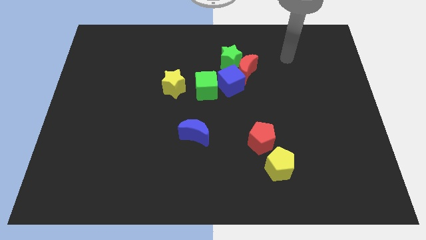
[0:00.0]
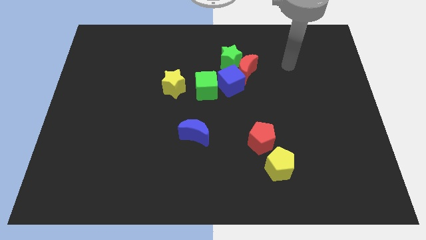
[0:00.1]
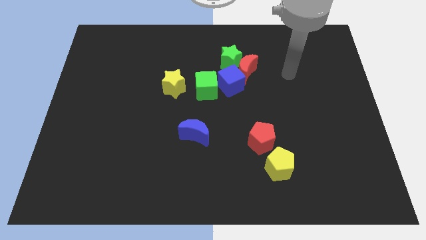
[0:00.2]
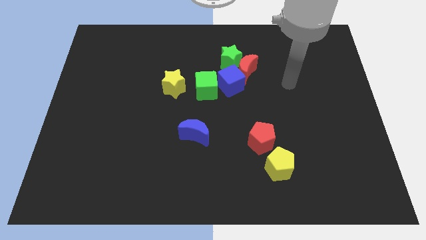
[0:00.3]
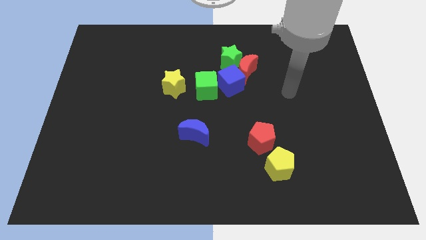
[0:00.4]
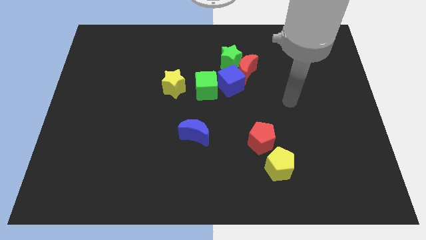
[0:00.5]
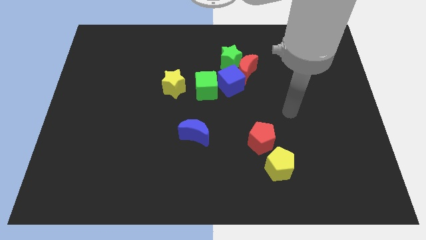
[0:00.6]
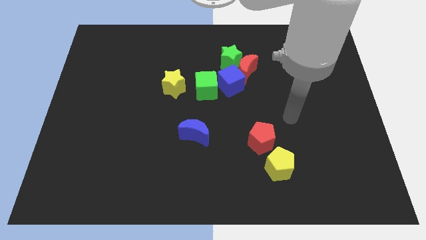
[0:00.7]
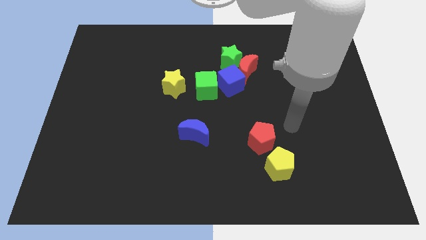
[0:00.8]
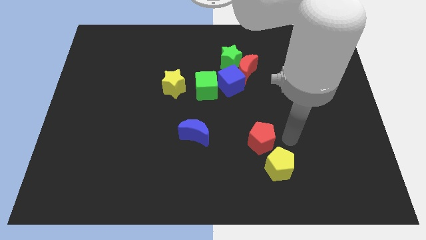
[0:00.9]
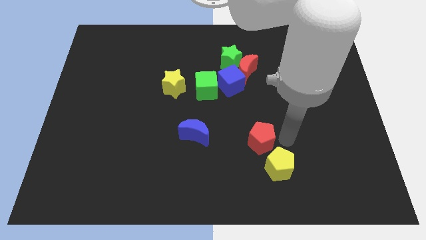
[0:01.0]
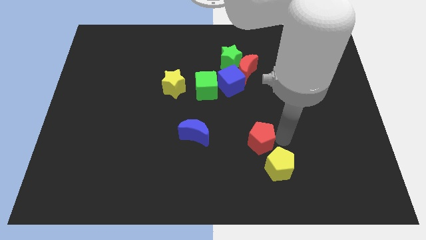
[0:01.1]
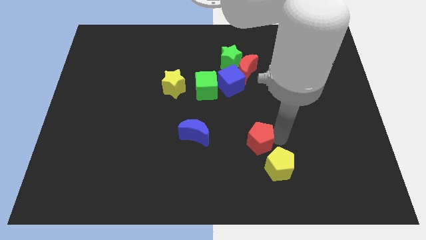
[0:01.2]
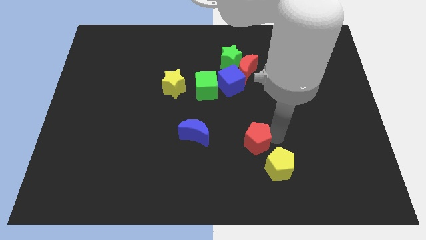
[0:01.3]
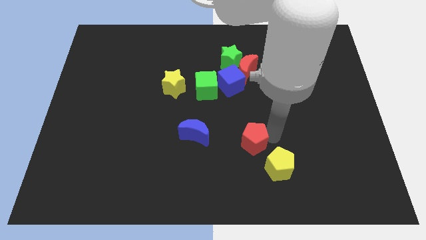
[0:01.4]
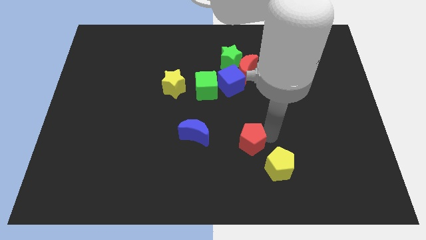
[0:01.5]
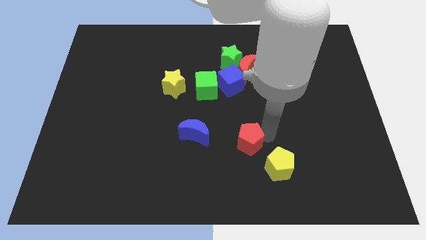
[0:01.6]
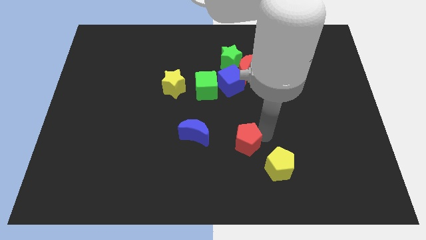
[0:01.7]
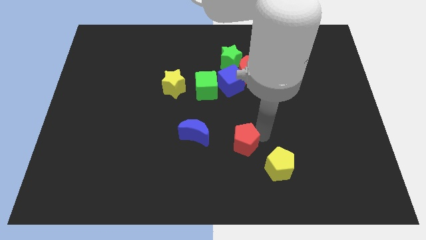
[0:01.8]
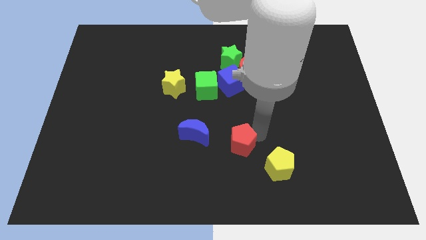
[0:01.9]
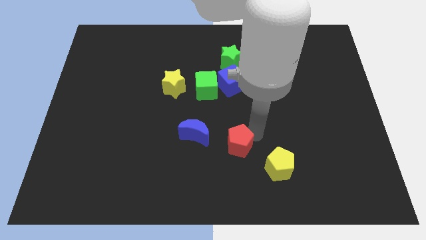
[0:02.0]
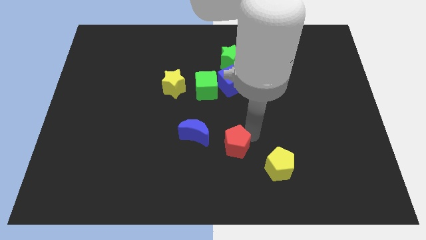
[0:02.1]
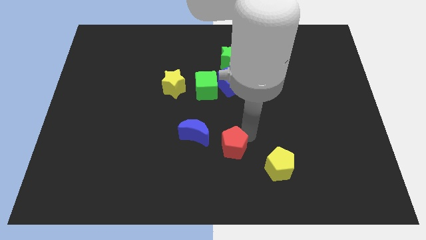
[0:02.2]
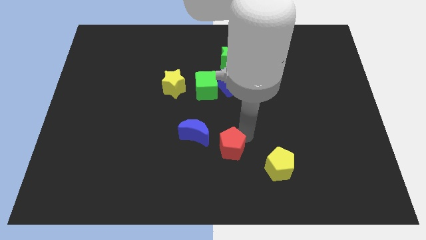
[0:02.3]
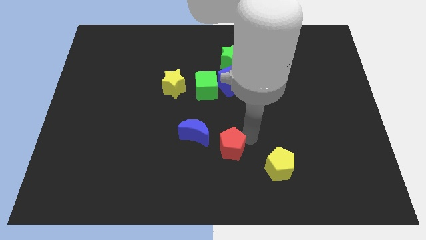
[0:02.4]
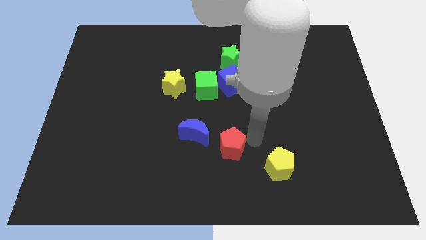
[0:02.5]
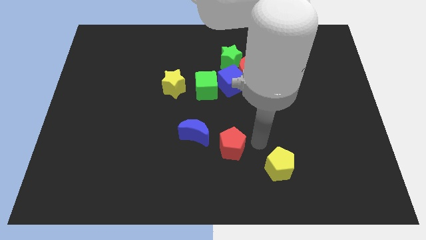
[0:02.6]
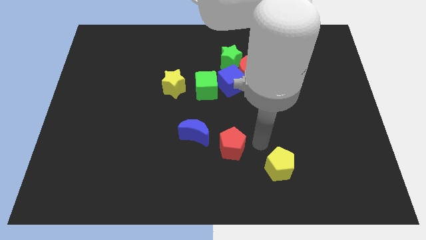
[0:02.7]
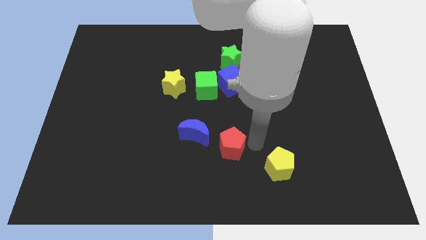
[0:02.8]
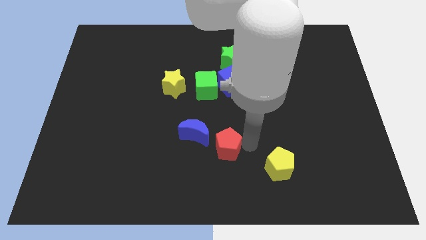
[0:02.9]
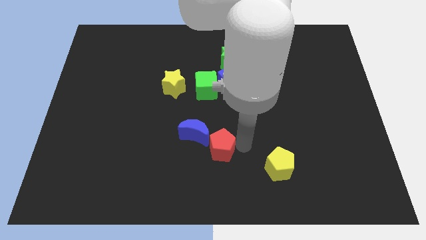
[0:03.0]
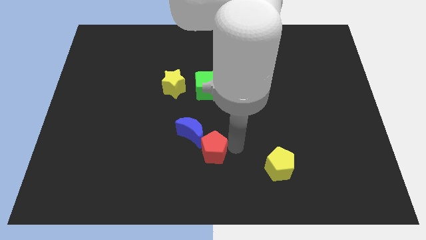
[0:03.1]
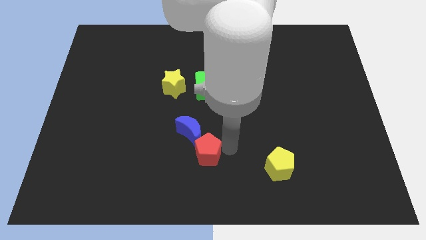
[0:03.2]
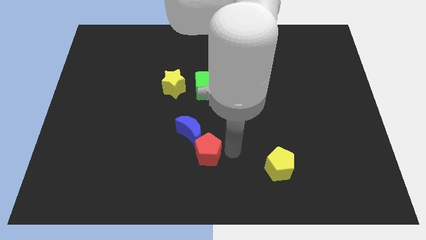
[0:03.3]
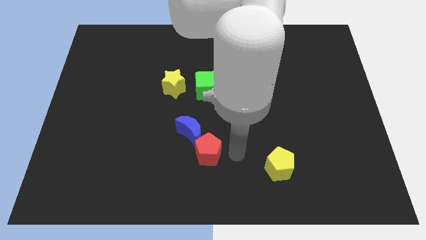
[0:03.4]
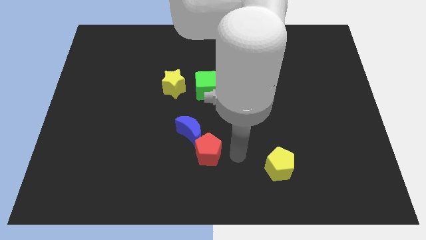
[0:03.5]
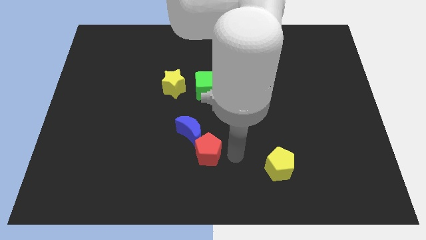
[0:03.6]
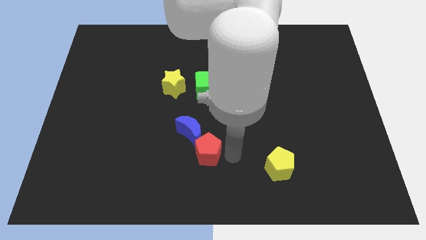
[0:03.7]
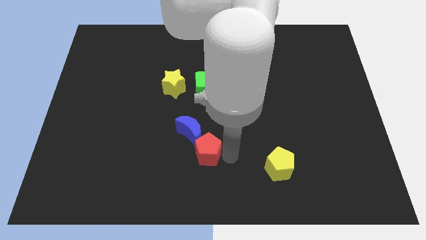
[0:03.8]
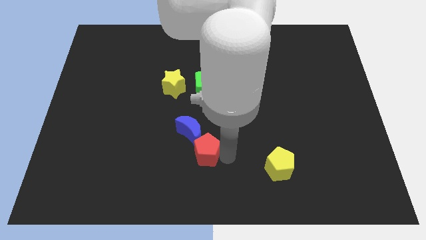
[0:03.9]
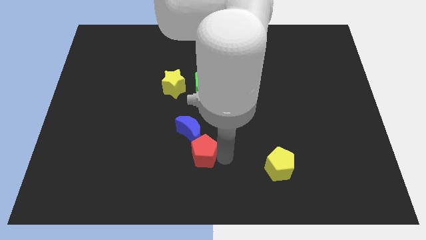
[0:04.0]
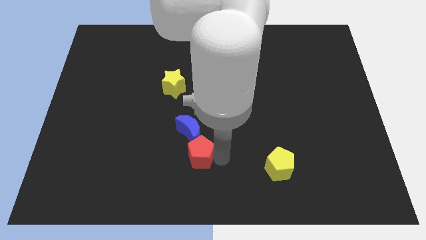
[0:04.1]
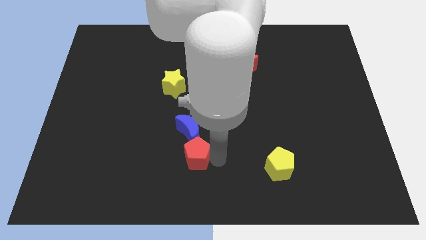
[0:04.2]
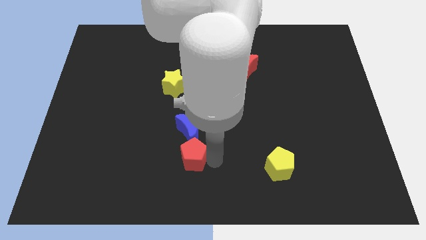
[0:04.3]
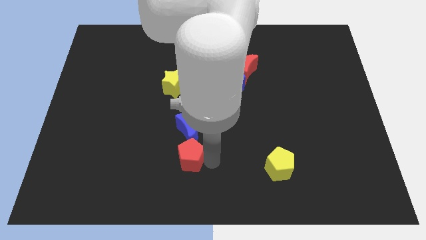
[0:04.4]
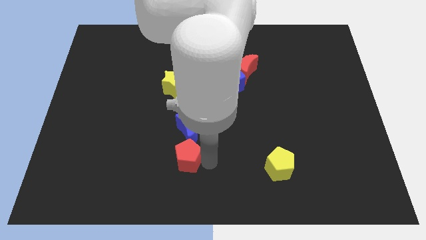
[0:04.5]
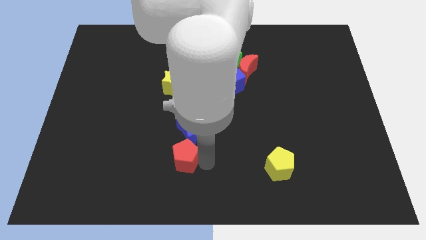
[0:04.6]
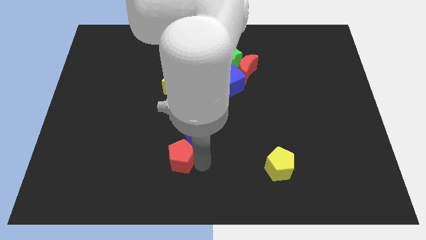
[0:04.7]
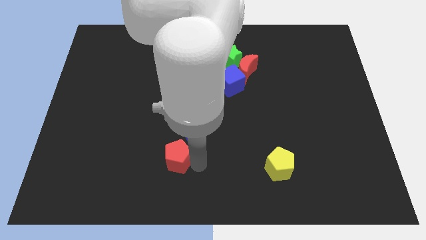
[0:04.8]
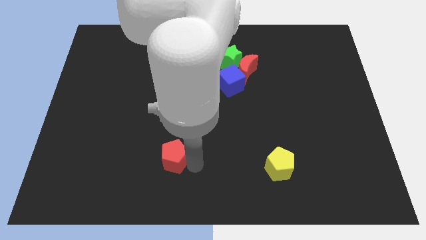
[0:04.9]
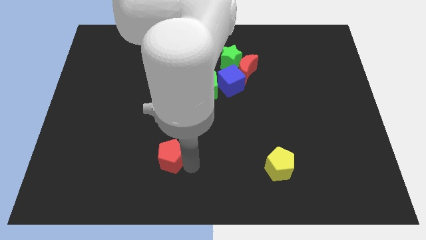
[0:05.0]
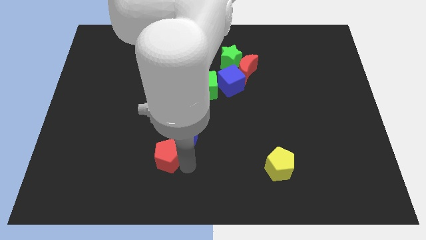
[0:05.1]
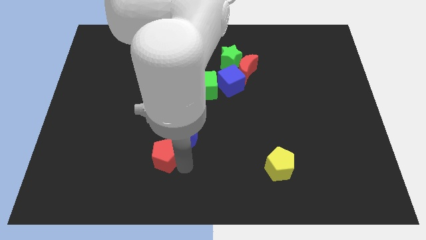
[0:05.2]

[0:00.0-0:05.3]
move the red pentagon to the left

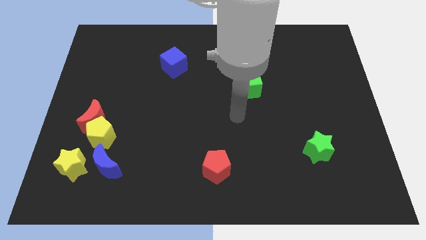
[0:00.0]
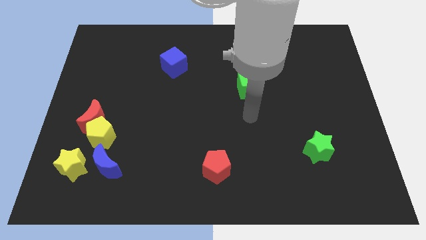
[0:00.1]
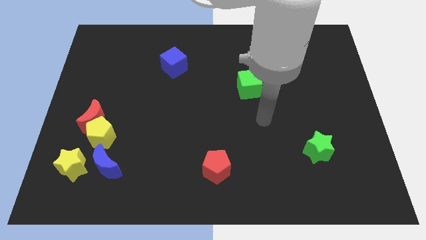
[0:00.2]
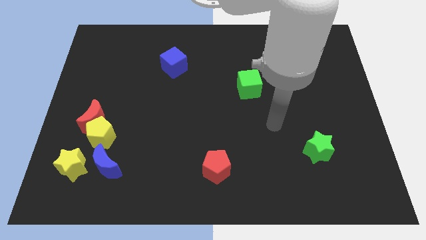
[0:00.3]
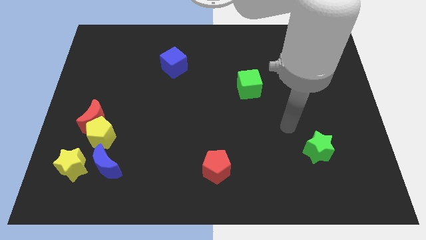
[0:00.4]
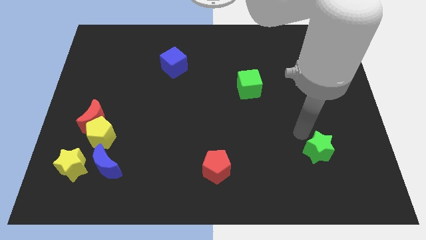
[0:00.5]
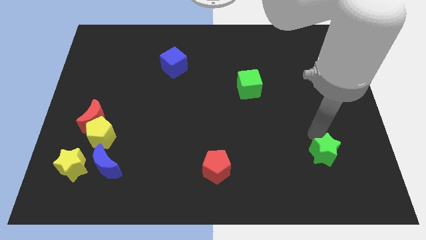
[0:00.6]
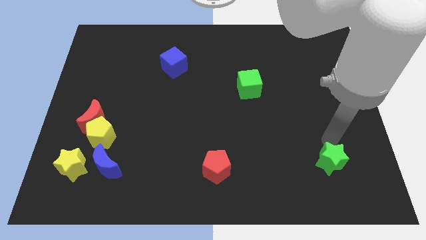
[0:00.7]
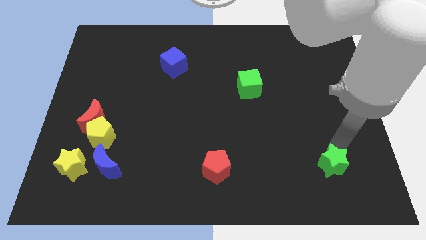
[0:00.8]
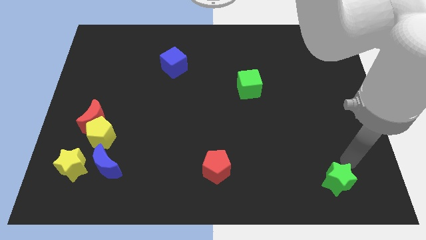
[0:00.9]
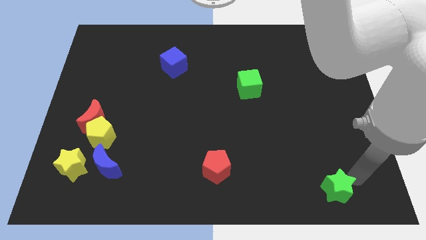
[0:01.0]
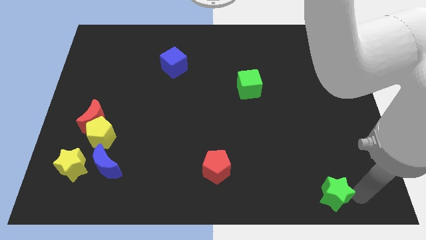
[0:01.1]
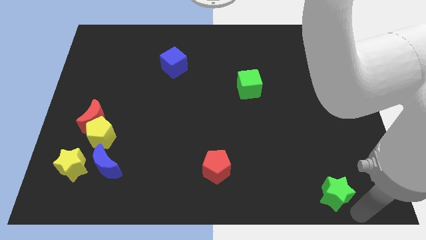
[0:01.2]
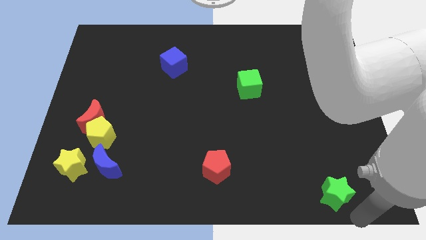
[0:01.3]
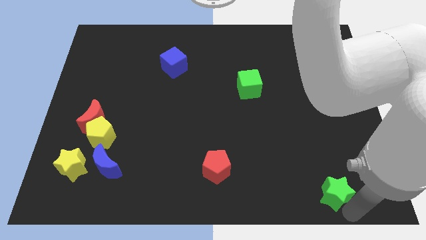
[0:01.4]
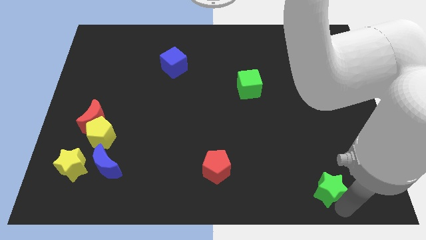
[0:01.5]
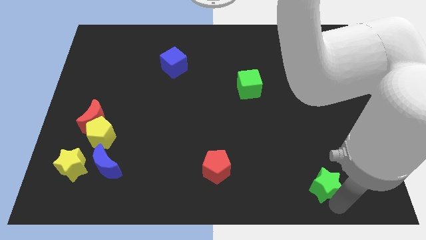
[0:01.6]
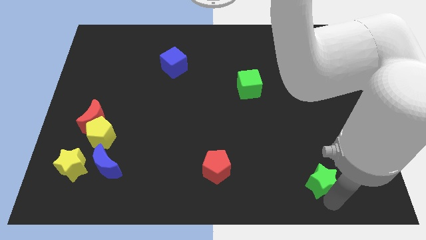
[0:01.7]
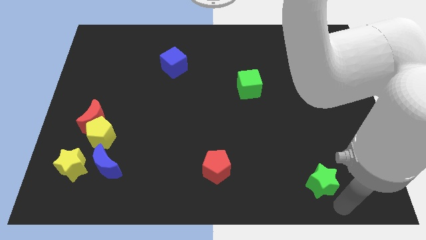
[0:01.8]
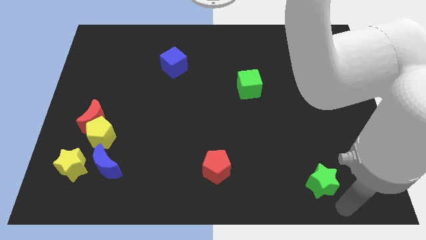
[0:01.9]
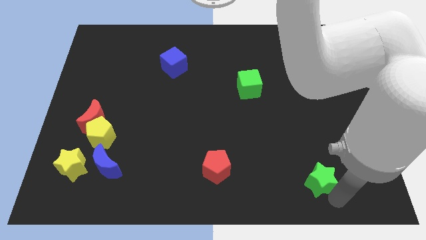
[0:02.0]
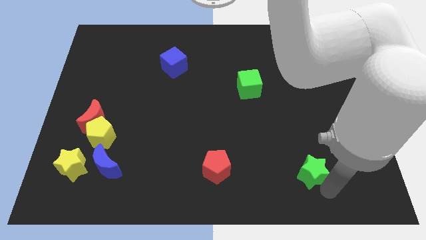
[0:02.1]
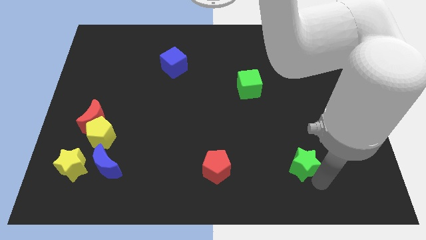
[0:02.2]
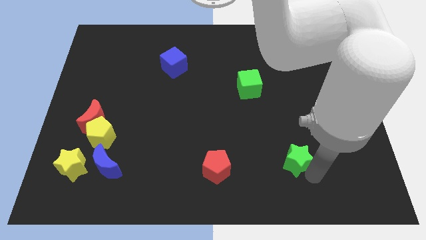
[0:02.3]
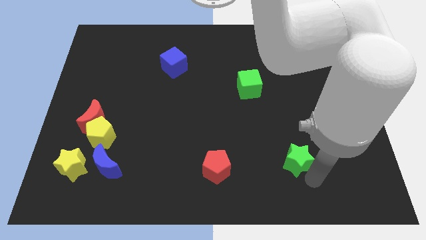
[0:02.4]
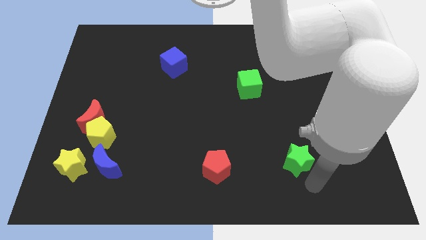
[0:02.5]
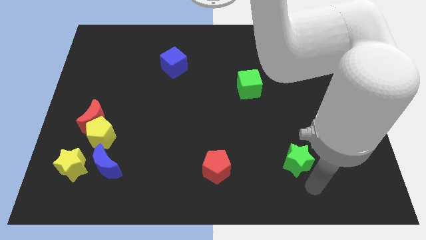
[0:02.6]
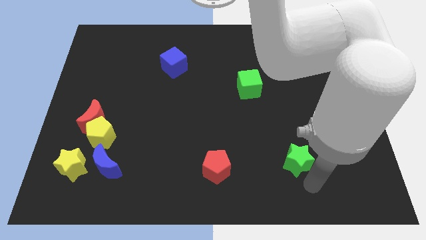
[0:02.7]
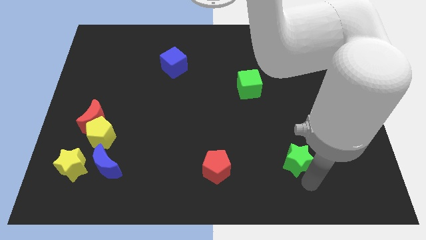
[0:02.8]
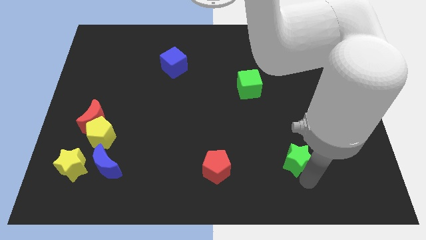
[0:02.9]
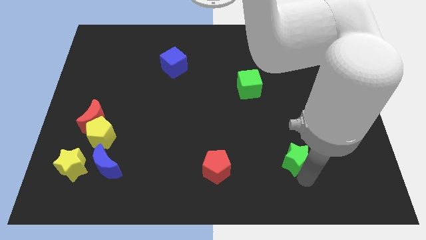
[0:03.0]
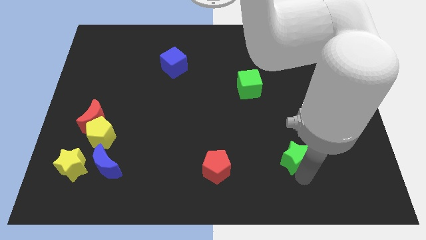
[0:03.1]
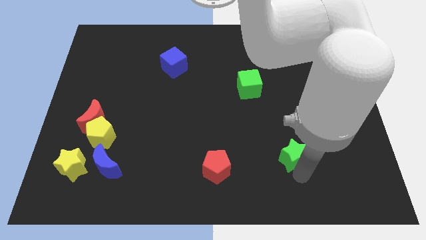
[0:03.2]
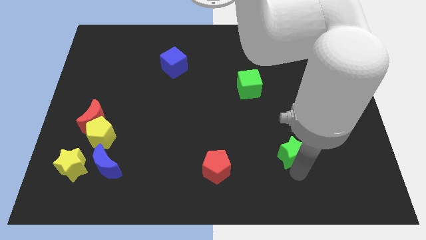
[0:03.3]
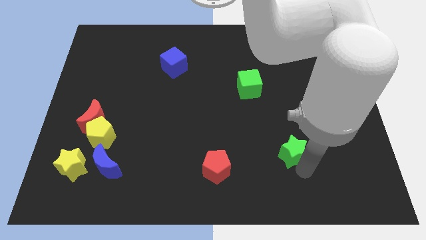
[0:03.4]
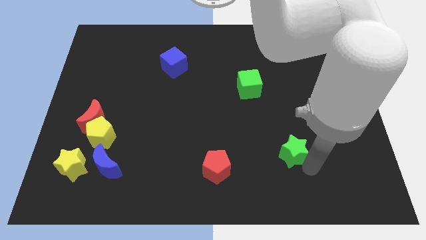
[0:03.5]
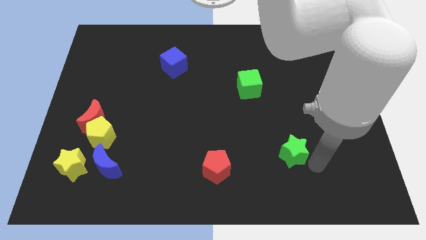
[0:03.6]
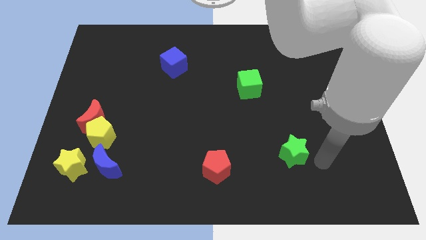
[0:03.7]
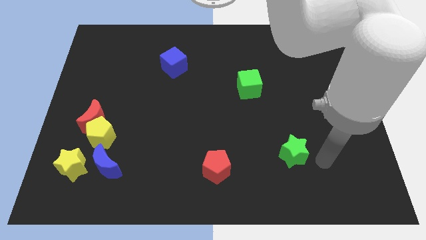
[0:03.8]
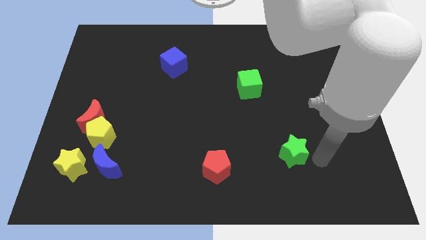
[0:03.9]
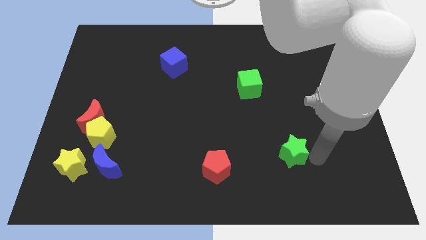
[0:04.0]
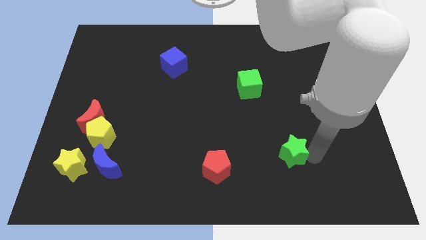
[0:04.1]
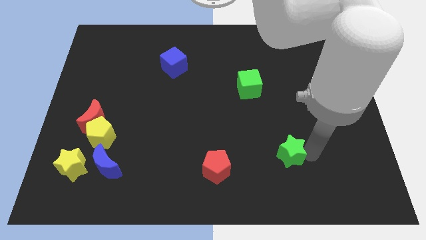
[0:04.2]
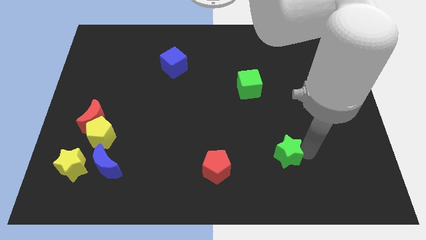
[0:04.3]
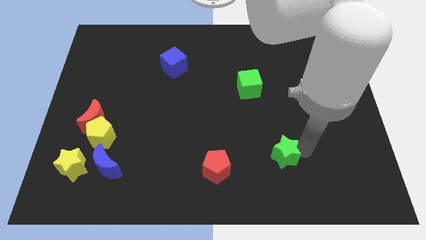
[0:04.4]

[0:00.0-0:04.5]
slightly push the green star left
